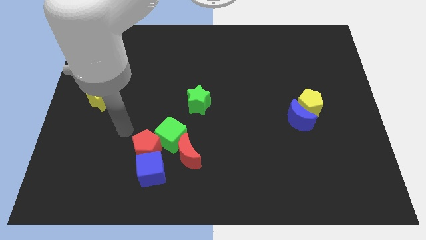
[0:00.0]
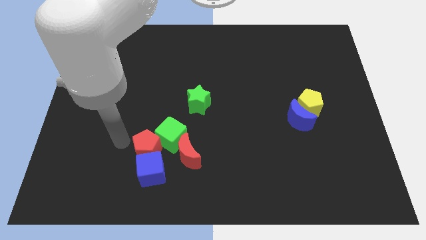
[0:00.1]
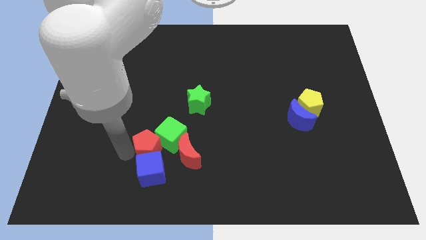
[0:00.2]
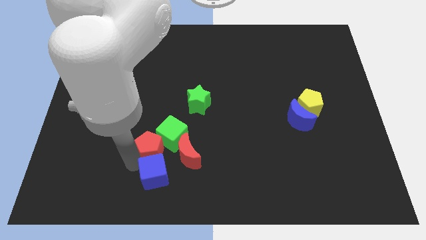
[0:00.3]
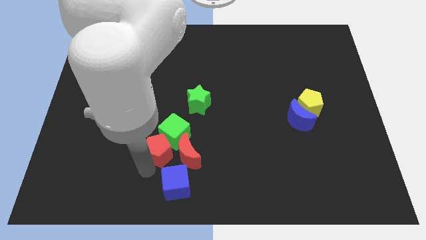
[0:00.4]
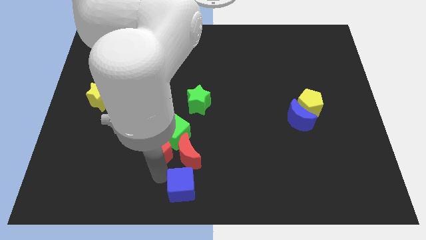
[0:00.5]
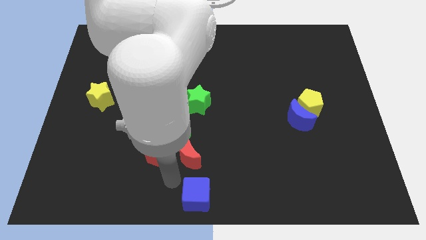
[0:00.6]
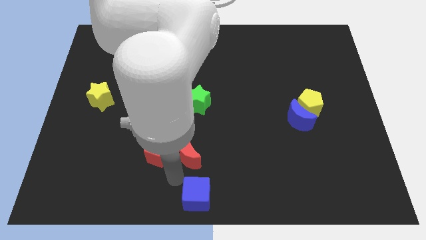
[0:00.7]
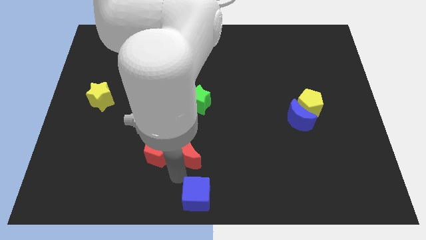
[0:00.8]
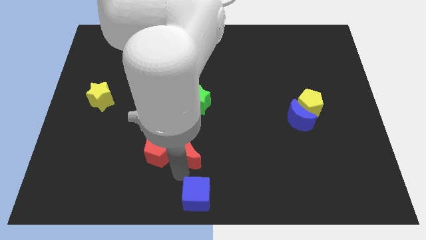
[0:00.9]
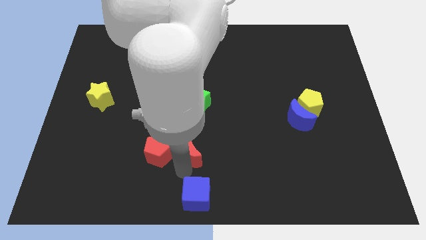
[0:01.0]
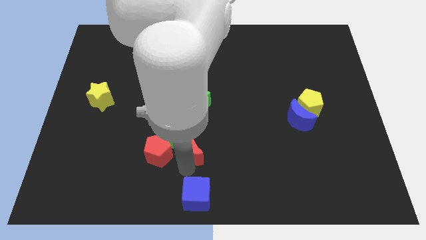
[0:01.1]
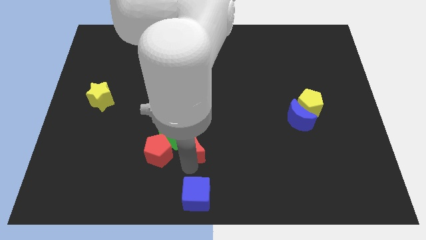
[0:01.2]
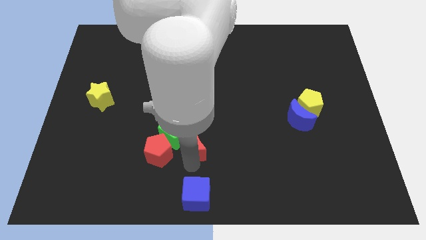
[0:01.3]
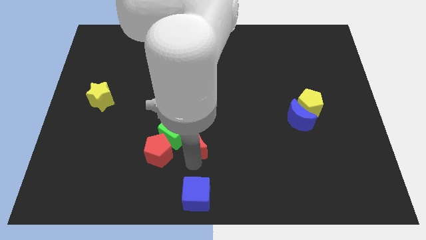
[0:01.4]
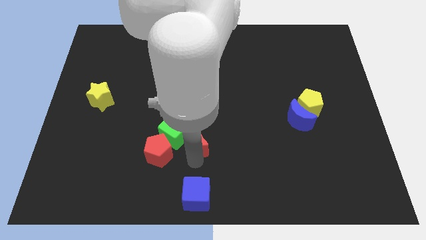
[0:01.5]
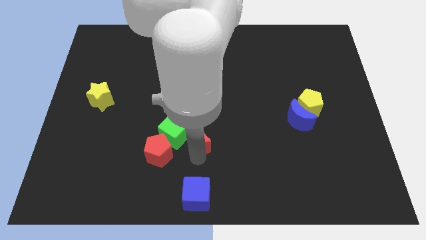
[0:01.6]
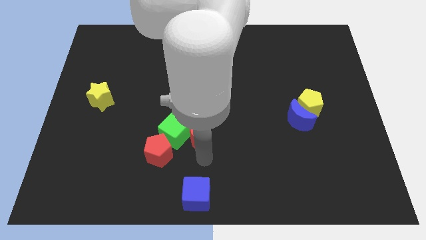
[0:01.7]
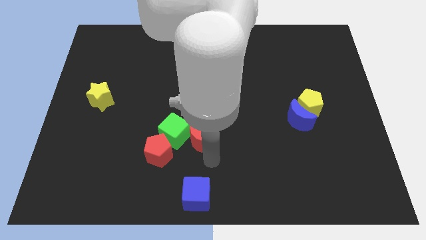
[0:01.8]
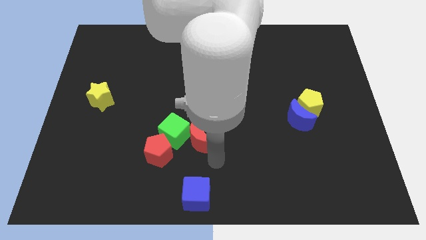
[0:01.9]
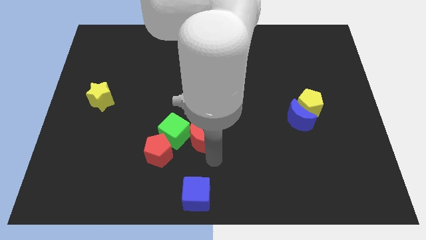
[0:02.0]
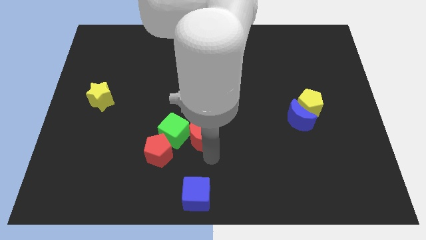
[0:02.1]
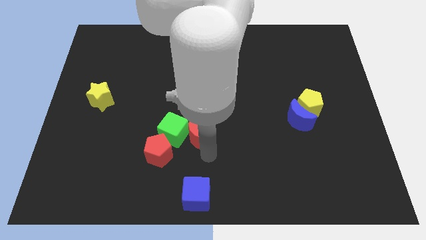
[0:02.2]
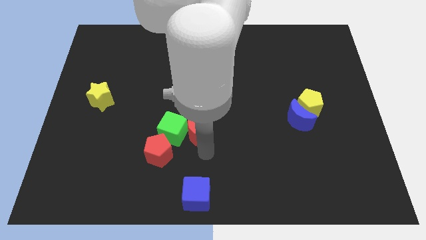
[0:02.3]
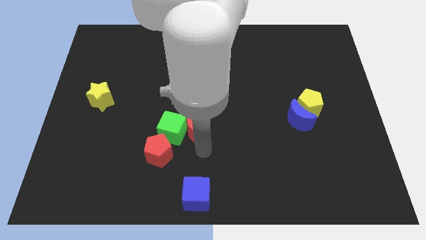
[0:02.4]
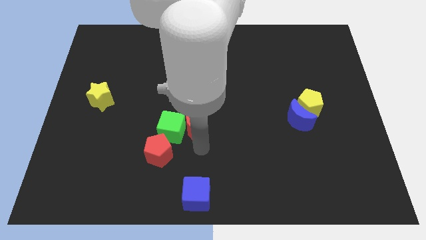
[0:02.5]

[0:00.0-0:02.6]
slightly slide the red moon up

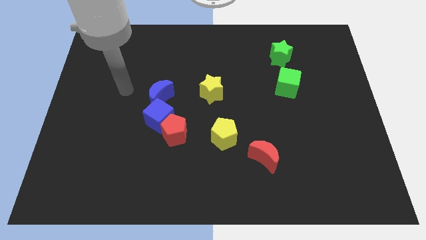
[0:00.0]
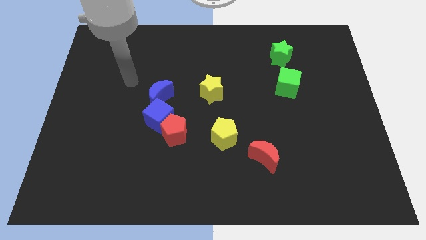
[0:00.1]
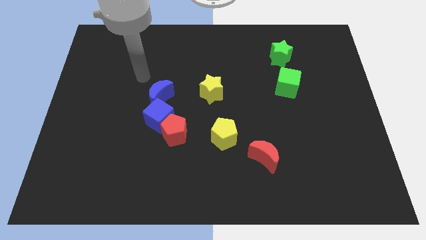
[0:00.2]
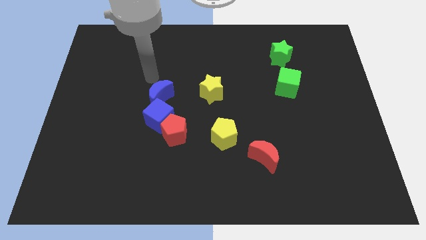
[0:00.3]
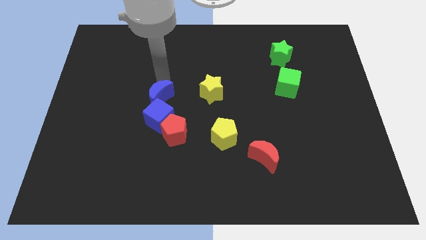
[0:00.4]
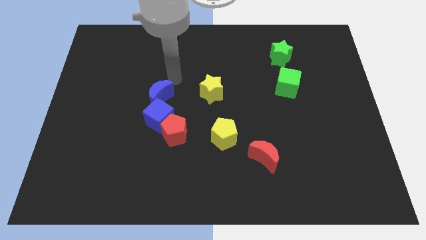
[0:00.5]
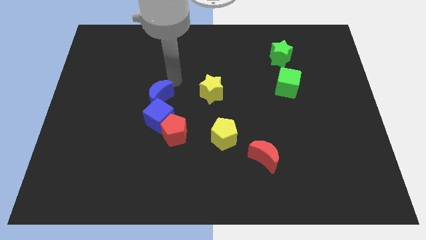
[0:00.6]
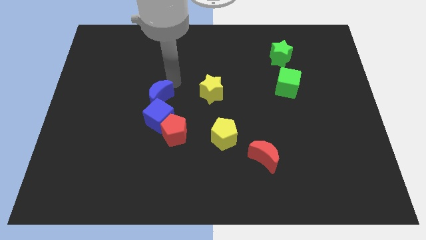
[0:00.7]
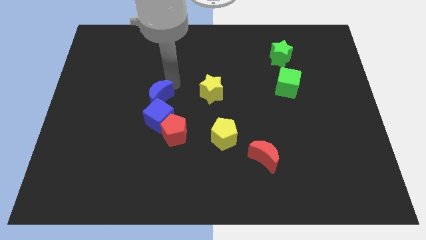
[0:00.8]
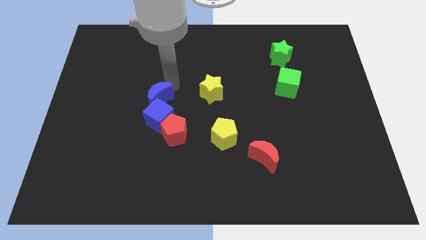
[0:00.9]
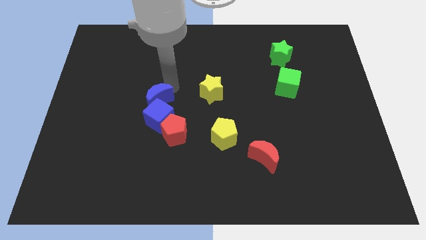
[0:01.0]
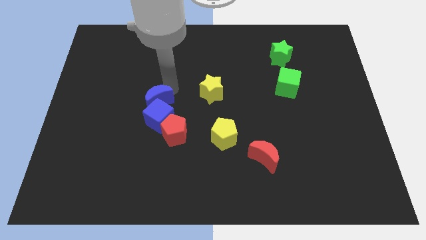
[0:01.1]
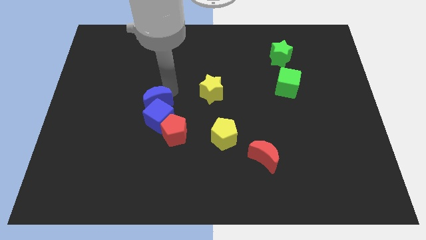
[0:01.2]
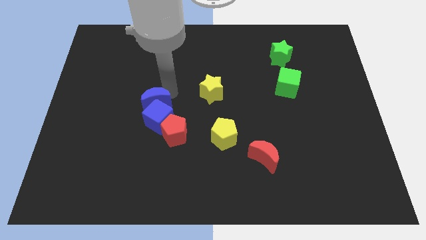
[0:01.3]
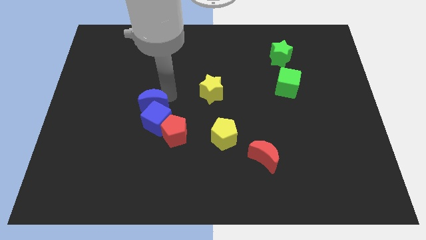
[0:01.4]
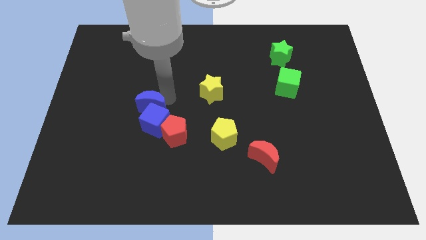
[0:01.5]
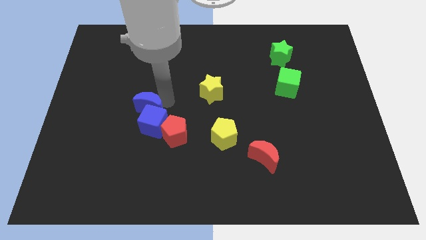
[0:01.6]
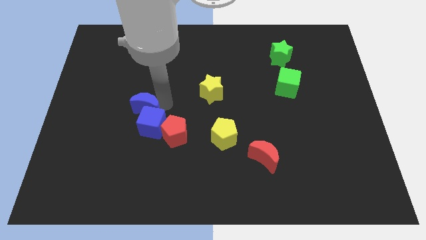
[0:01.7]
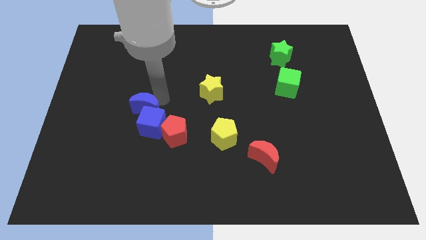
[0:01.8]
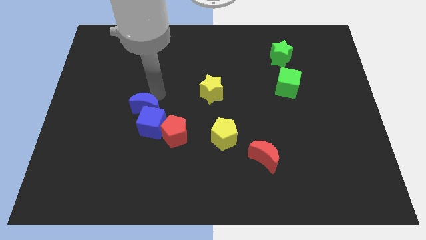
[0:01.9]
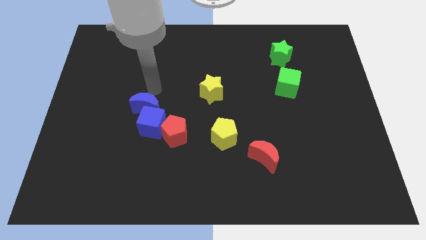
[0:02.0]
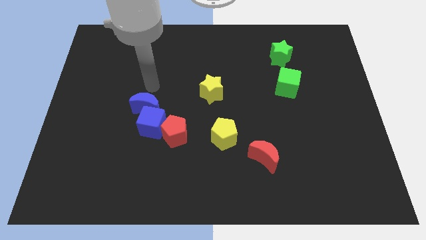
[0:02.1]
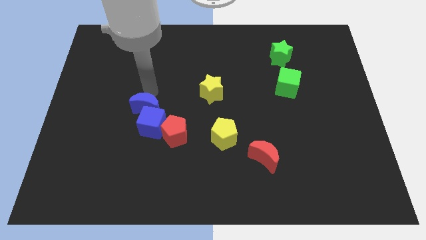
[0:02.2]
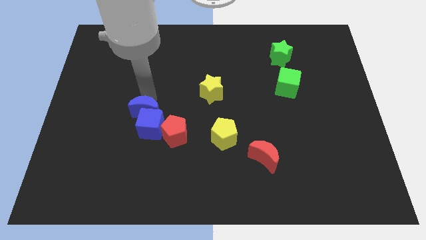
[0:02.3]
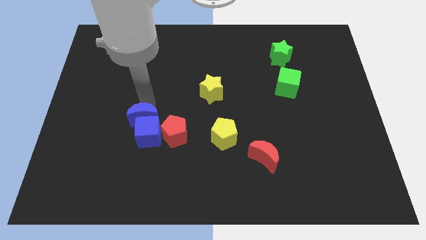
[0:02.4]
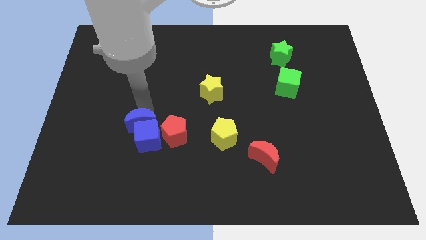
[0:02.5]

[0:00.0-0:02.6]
push the blue moon a bit down

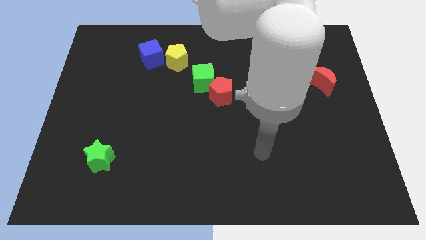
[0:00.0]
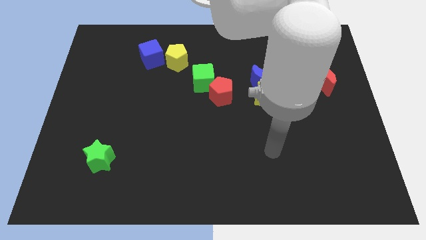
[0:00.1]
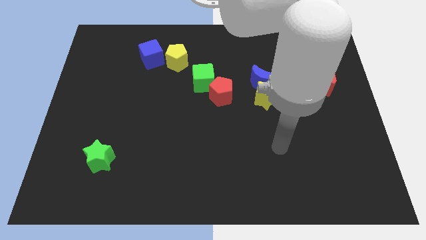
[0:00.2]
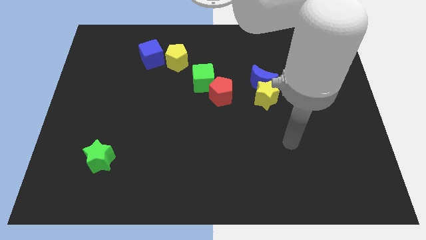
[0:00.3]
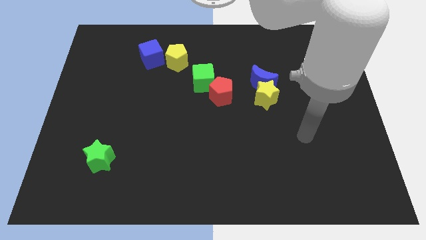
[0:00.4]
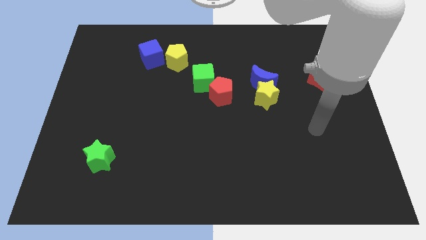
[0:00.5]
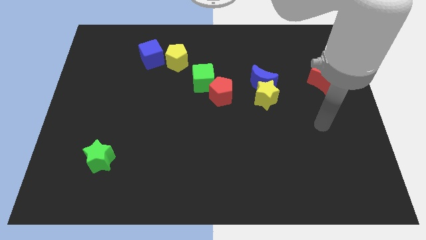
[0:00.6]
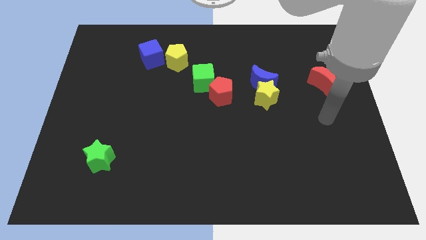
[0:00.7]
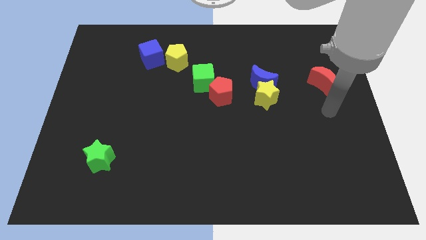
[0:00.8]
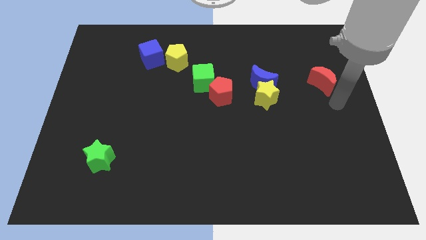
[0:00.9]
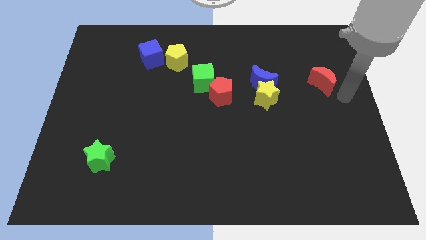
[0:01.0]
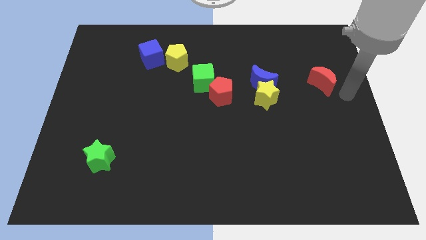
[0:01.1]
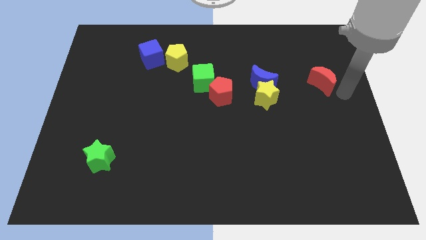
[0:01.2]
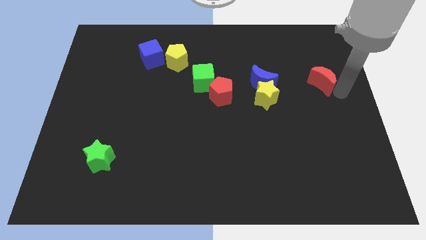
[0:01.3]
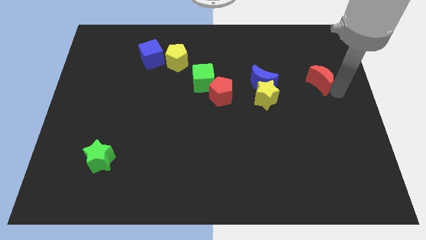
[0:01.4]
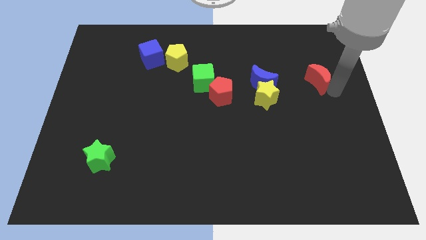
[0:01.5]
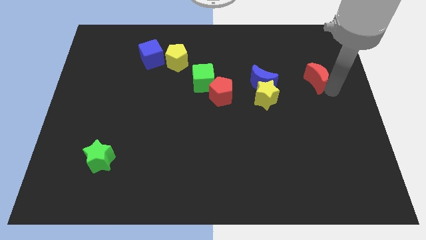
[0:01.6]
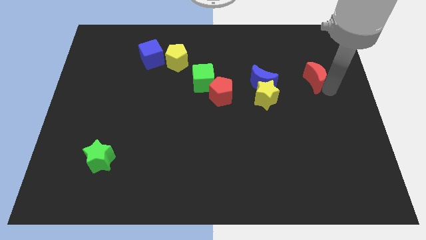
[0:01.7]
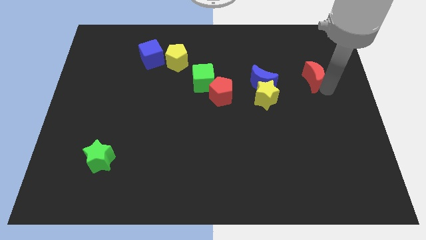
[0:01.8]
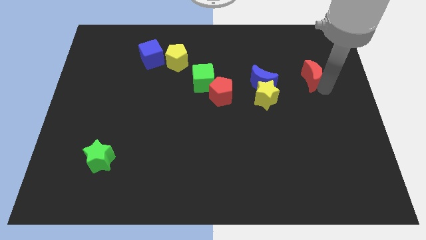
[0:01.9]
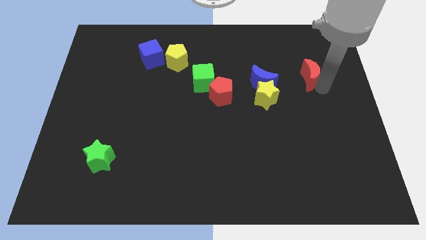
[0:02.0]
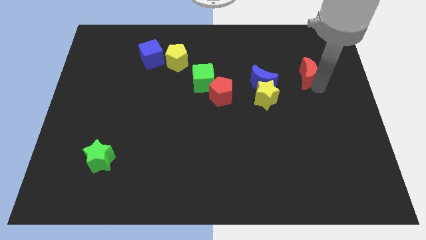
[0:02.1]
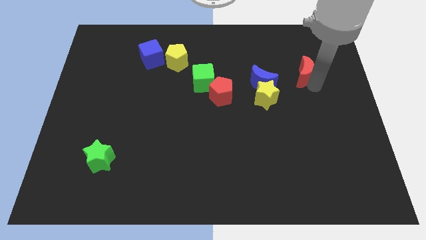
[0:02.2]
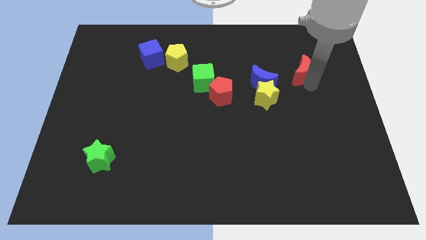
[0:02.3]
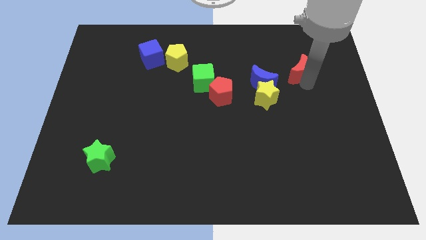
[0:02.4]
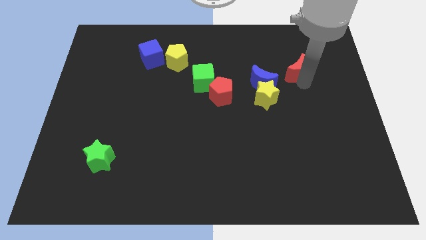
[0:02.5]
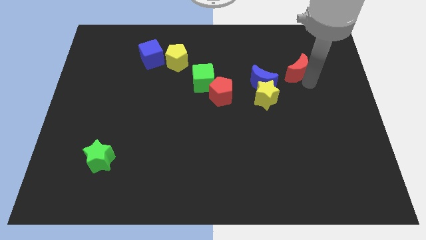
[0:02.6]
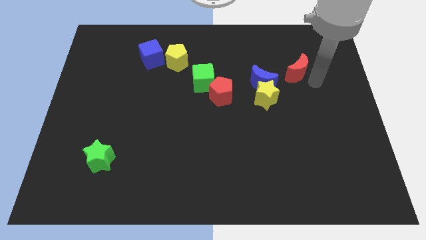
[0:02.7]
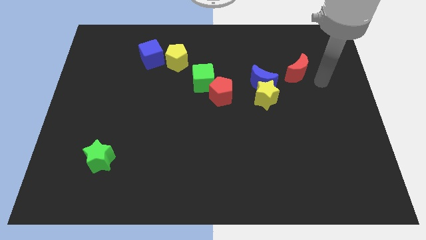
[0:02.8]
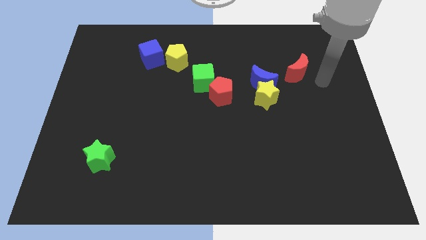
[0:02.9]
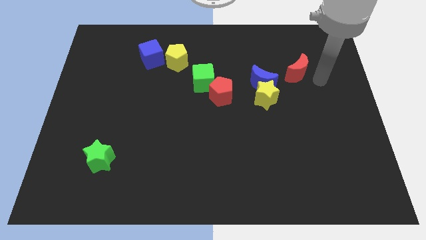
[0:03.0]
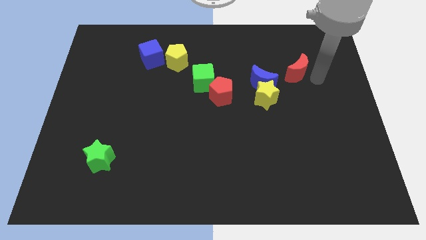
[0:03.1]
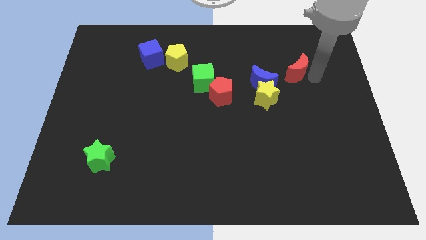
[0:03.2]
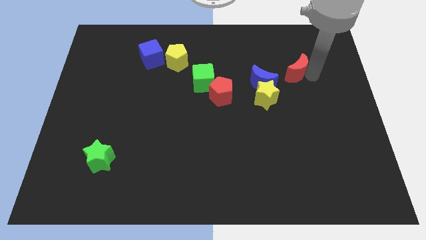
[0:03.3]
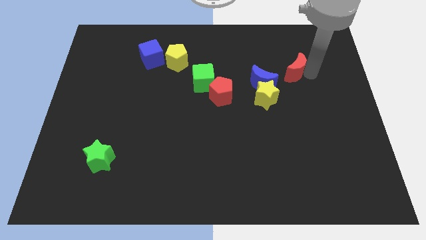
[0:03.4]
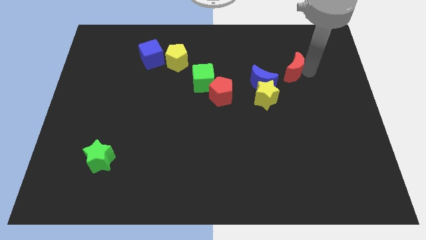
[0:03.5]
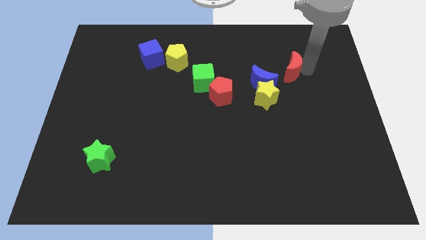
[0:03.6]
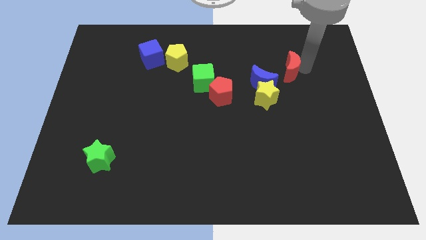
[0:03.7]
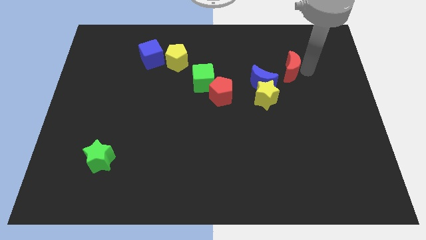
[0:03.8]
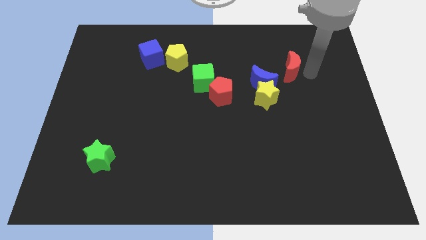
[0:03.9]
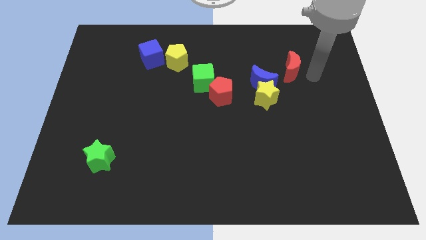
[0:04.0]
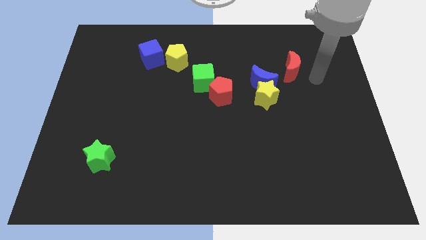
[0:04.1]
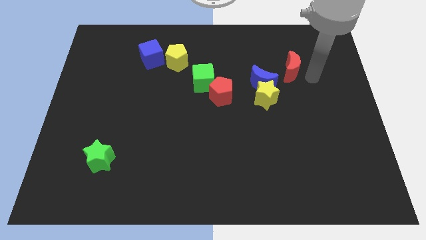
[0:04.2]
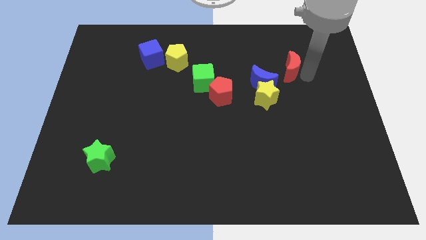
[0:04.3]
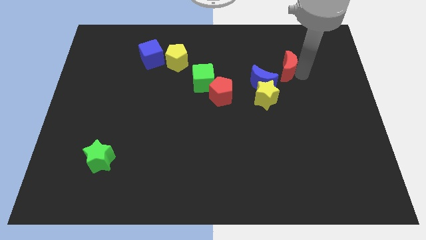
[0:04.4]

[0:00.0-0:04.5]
slightly push the red moon to the left
